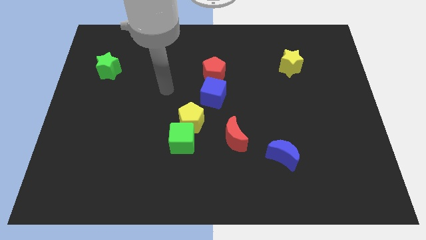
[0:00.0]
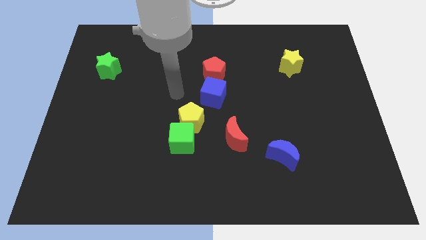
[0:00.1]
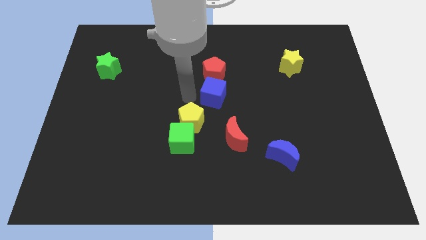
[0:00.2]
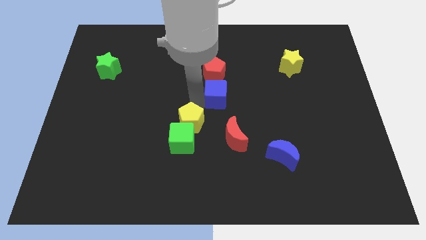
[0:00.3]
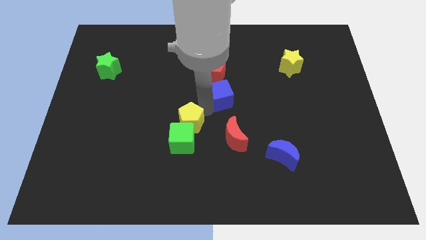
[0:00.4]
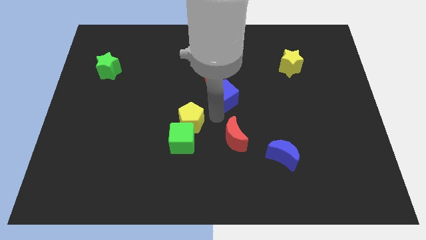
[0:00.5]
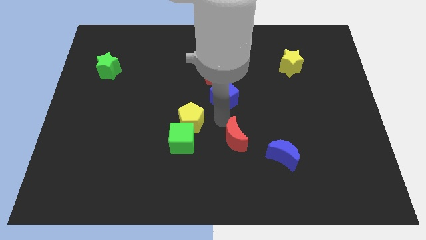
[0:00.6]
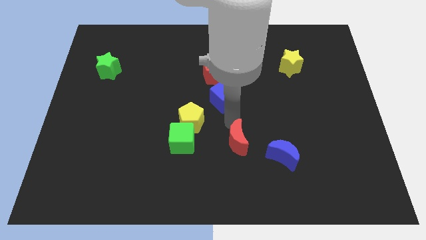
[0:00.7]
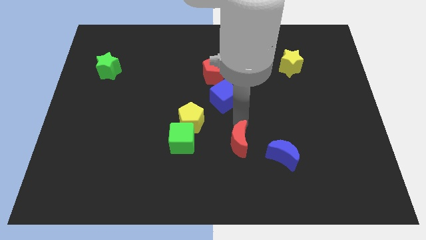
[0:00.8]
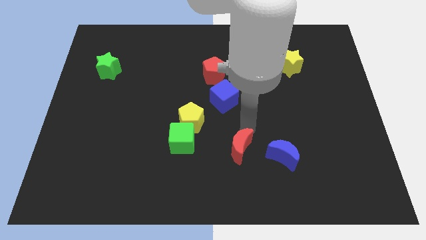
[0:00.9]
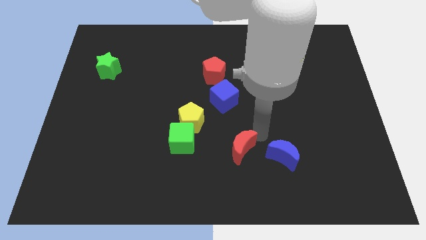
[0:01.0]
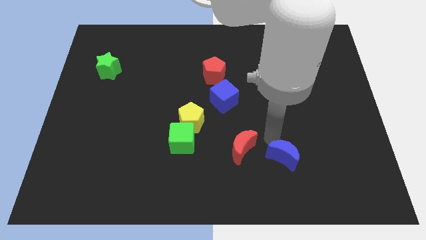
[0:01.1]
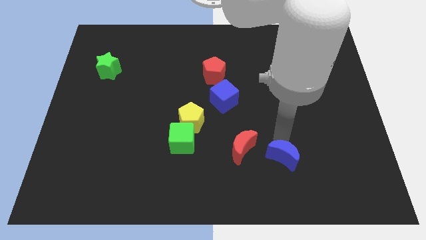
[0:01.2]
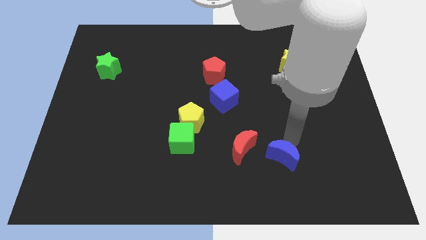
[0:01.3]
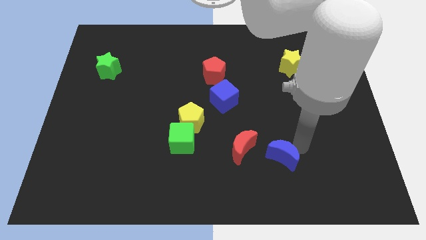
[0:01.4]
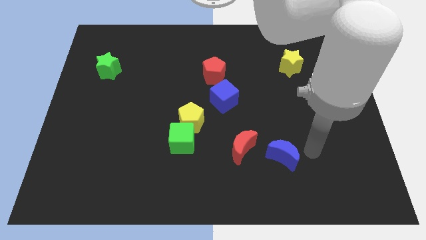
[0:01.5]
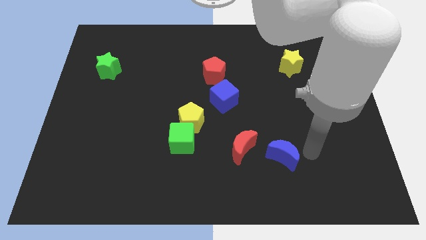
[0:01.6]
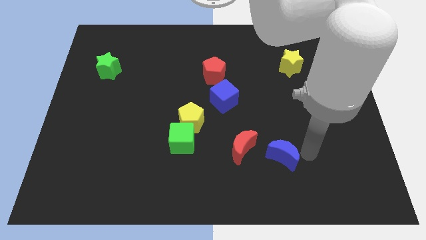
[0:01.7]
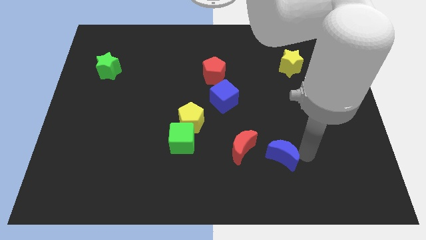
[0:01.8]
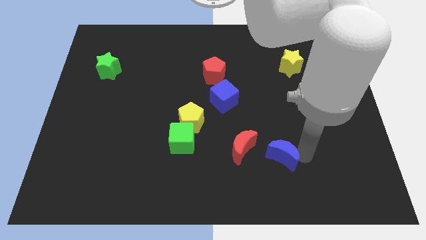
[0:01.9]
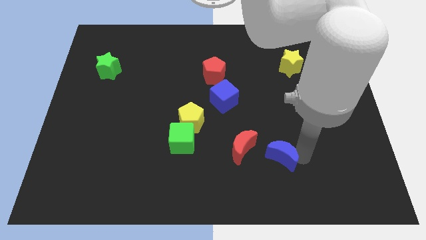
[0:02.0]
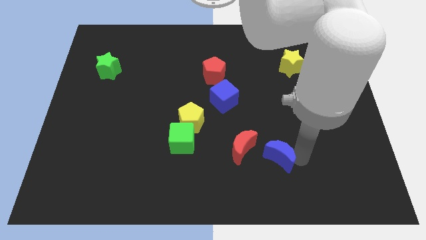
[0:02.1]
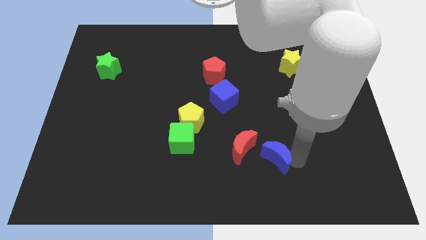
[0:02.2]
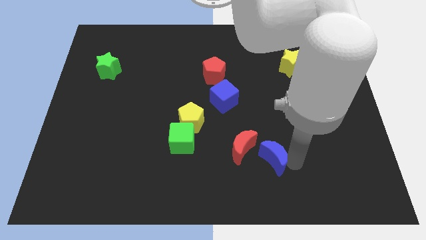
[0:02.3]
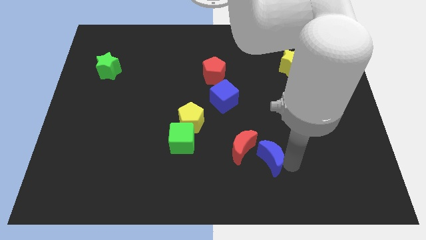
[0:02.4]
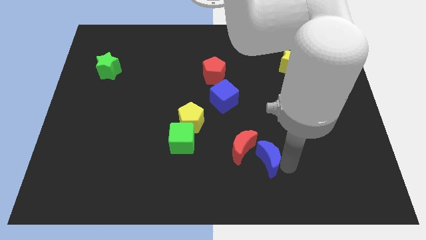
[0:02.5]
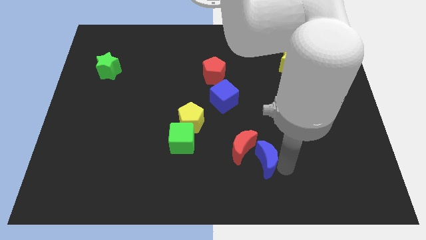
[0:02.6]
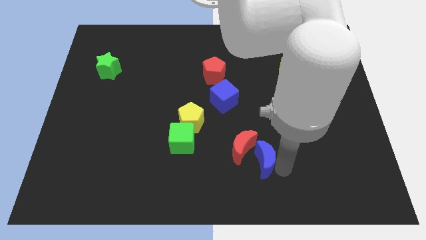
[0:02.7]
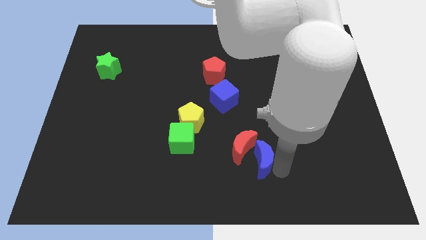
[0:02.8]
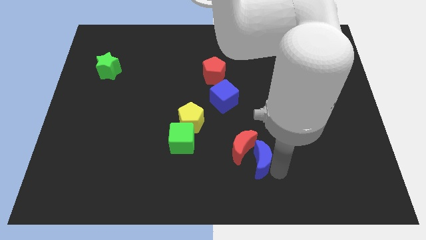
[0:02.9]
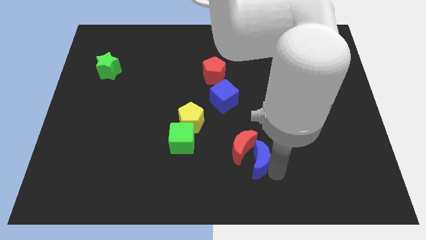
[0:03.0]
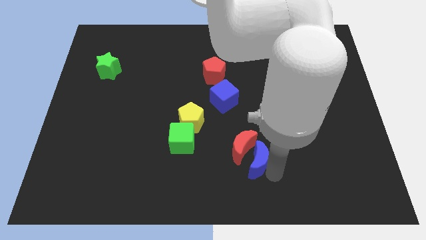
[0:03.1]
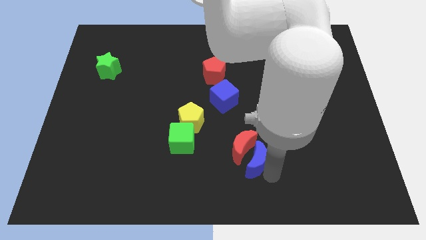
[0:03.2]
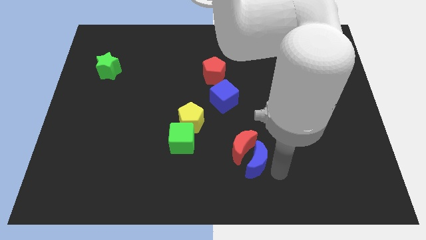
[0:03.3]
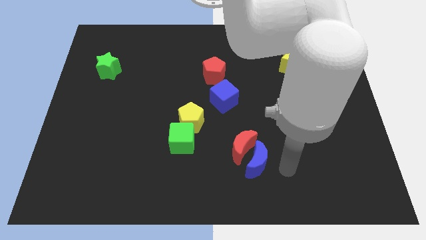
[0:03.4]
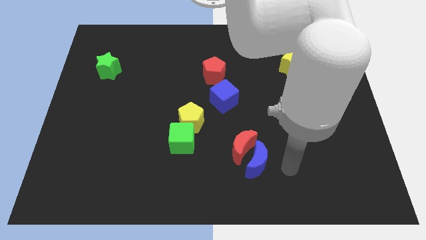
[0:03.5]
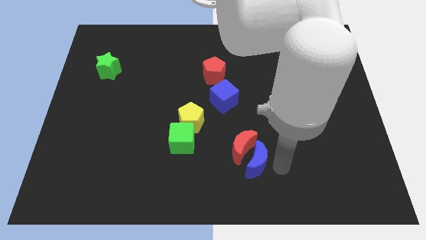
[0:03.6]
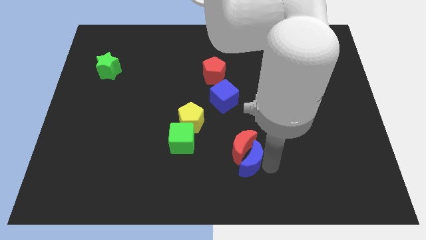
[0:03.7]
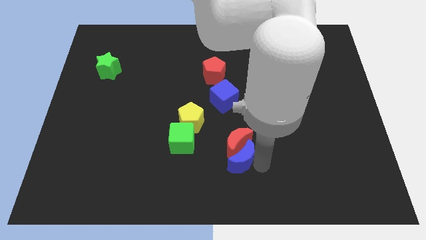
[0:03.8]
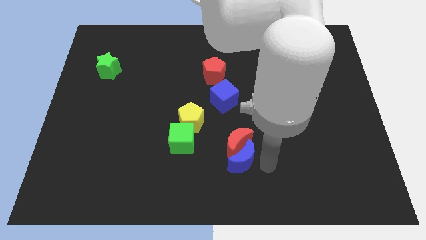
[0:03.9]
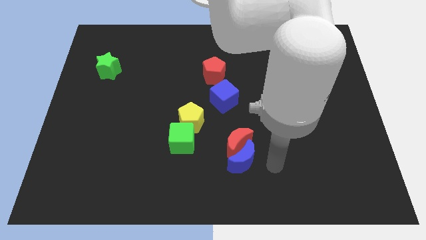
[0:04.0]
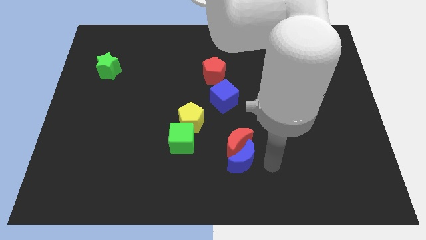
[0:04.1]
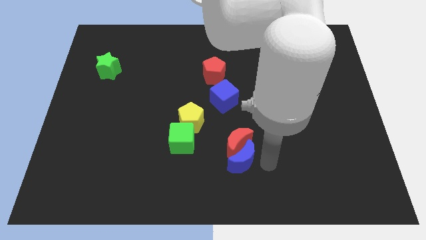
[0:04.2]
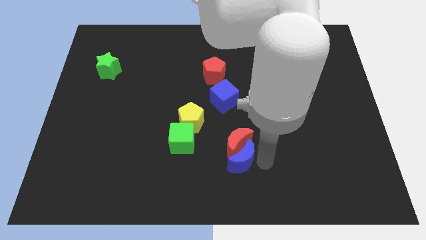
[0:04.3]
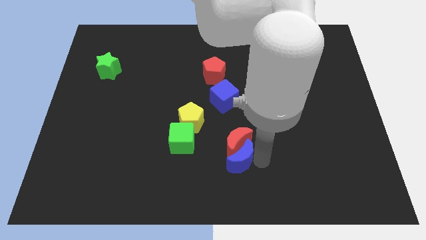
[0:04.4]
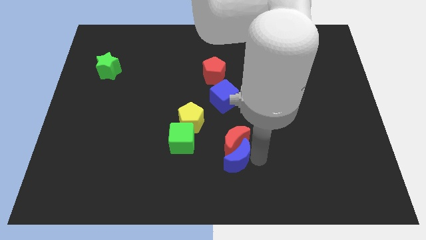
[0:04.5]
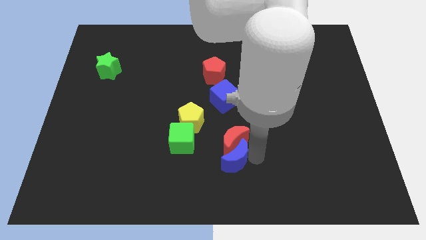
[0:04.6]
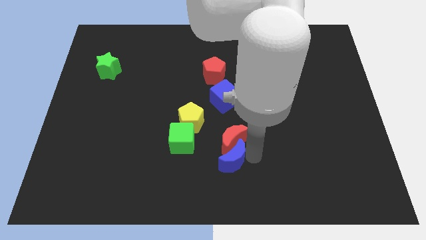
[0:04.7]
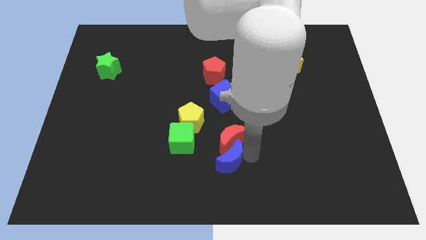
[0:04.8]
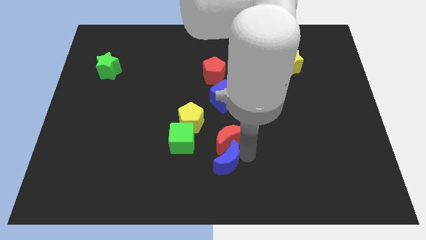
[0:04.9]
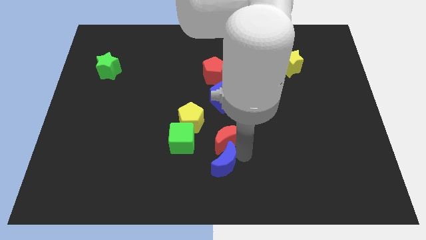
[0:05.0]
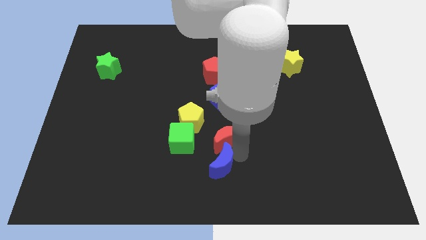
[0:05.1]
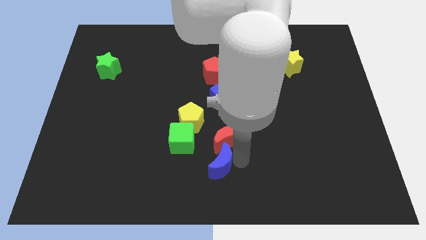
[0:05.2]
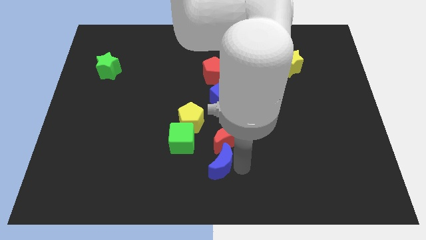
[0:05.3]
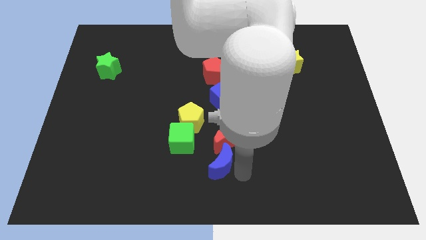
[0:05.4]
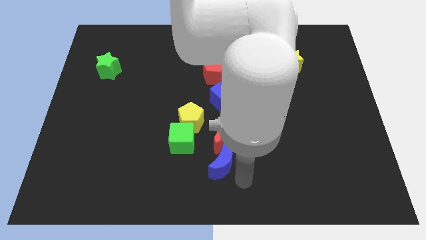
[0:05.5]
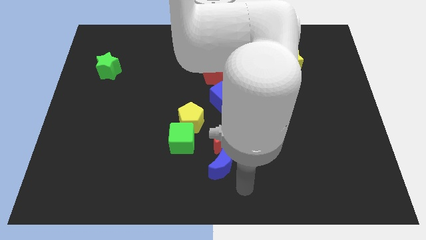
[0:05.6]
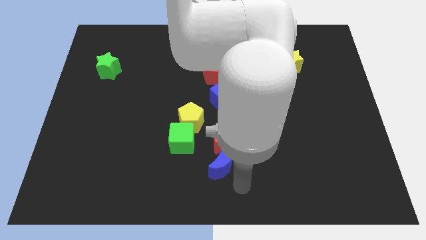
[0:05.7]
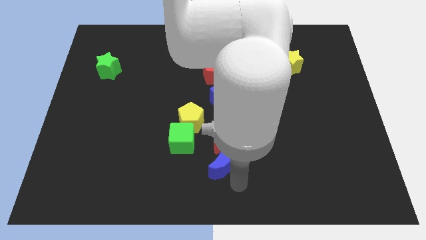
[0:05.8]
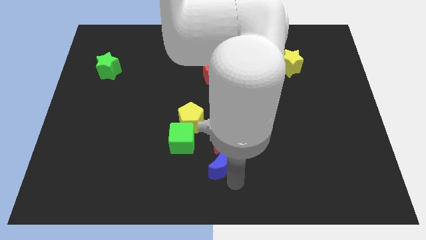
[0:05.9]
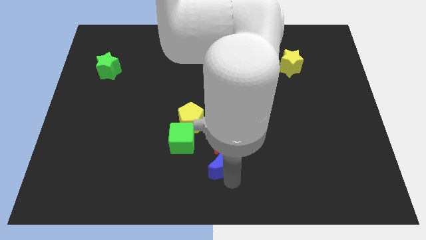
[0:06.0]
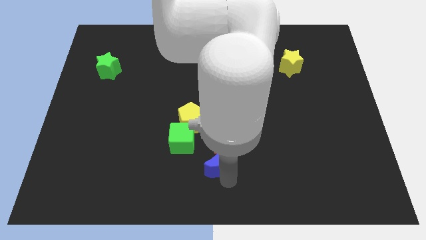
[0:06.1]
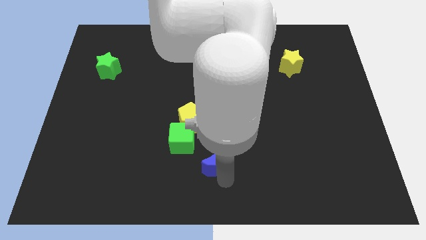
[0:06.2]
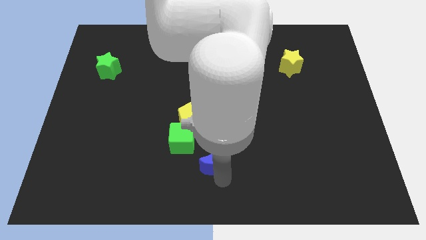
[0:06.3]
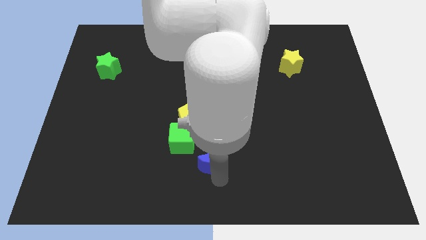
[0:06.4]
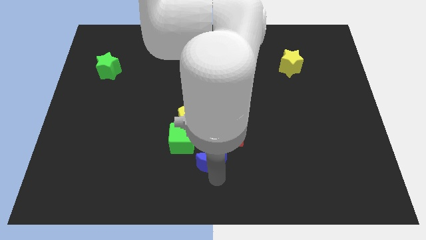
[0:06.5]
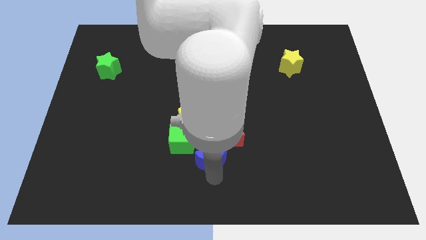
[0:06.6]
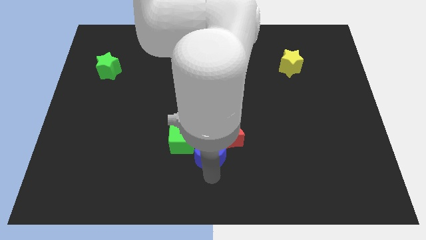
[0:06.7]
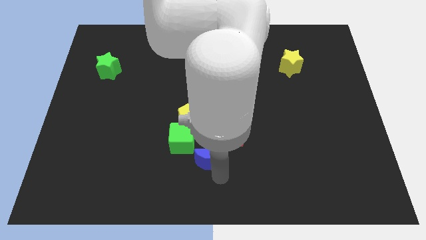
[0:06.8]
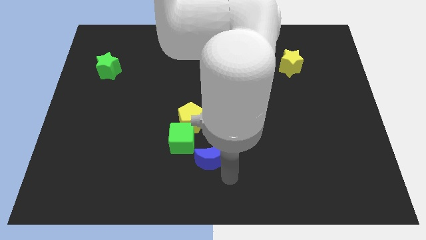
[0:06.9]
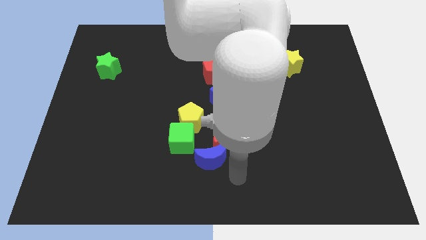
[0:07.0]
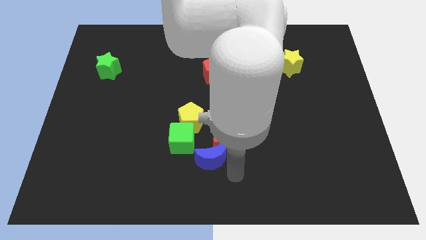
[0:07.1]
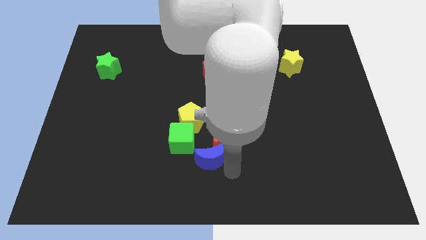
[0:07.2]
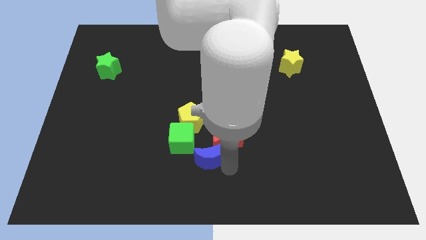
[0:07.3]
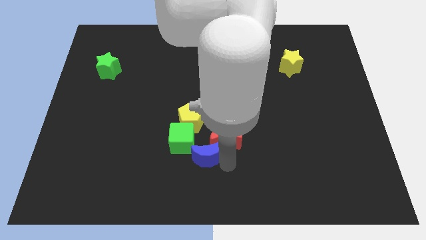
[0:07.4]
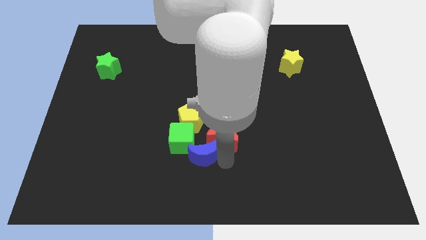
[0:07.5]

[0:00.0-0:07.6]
push the blue moon next to the green cube

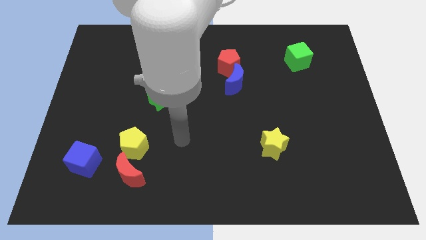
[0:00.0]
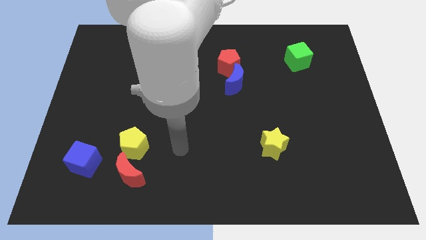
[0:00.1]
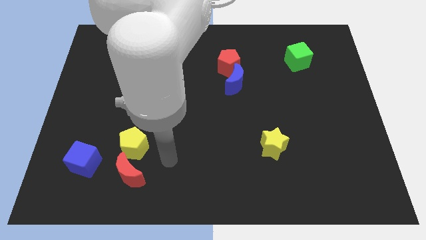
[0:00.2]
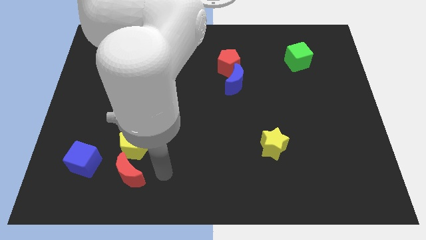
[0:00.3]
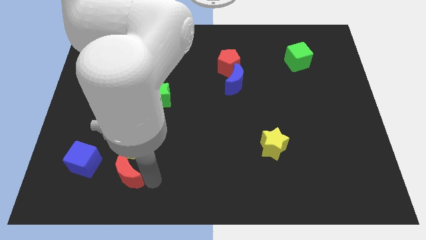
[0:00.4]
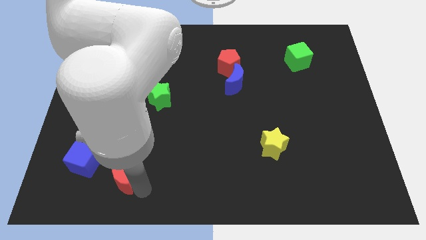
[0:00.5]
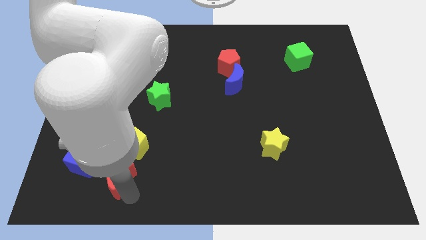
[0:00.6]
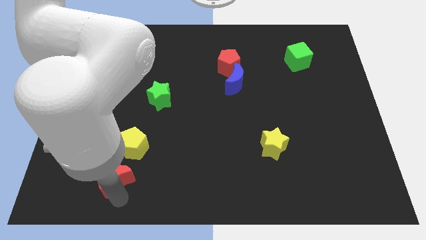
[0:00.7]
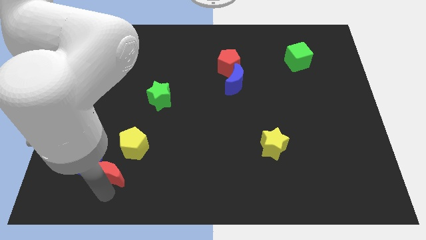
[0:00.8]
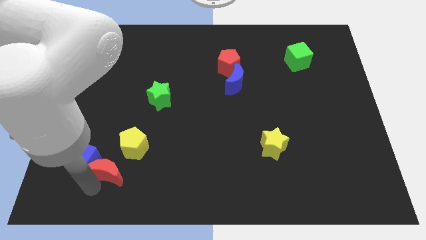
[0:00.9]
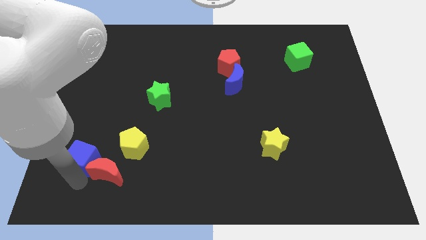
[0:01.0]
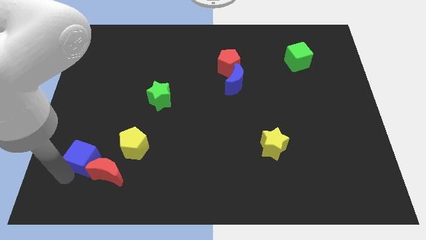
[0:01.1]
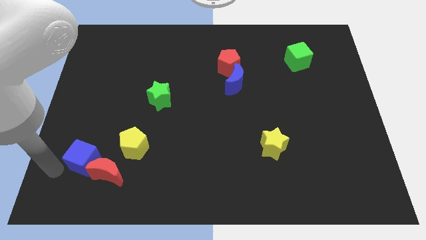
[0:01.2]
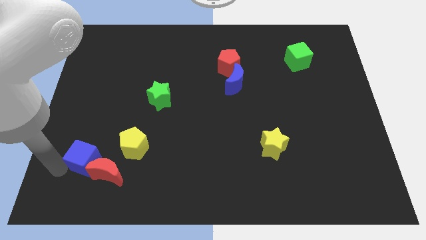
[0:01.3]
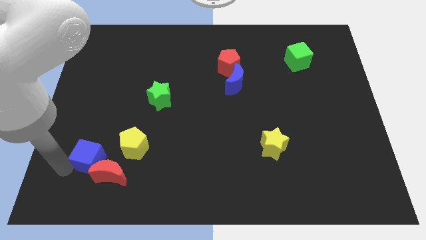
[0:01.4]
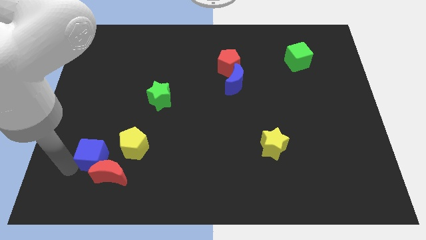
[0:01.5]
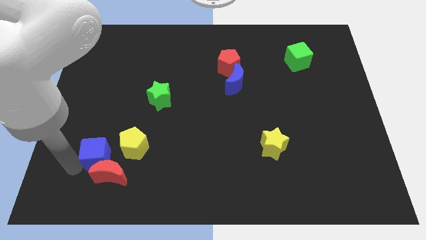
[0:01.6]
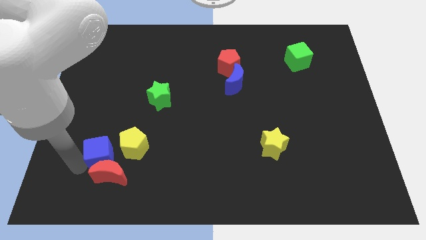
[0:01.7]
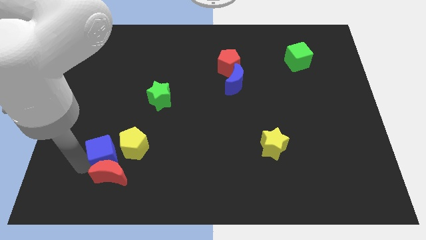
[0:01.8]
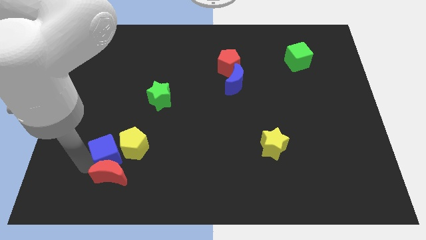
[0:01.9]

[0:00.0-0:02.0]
put the blue cube next to the yellow pentagon
